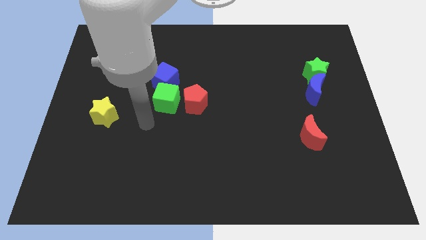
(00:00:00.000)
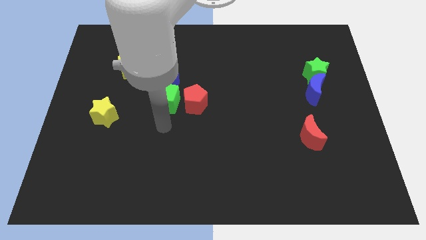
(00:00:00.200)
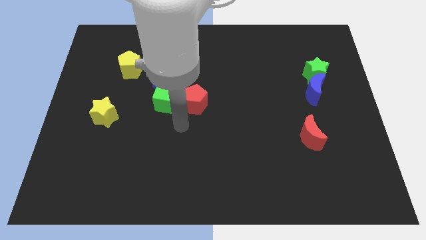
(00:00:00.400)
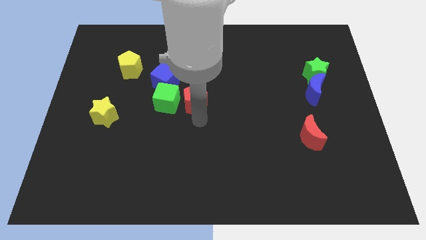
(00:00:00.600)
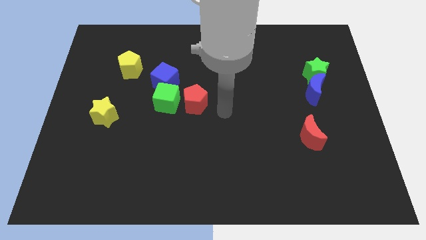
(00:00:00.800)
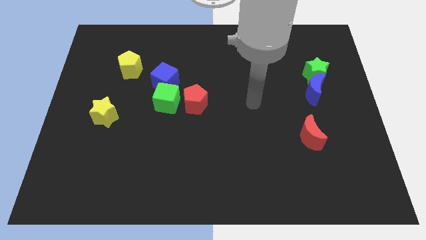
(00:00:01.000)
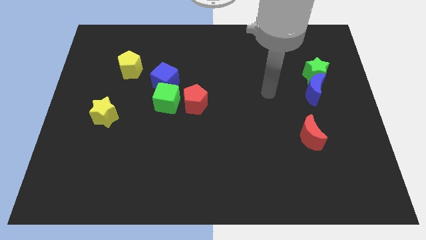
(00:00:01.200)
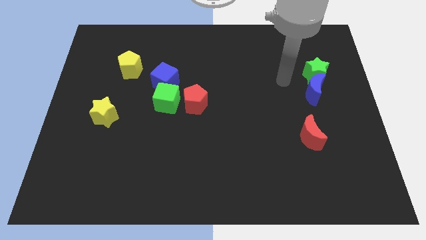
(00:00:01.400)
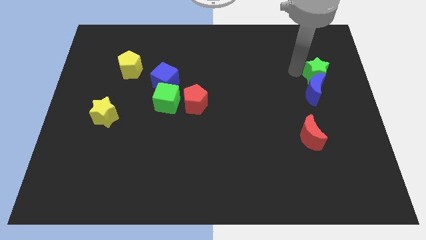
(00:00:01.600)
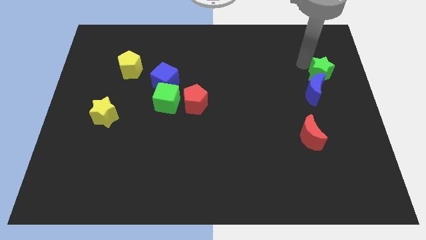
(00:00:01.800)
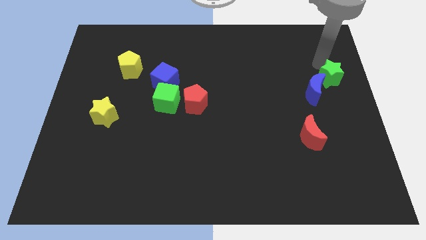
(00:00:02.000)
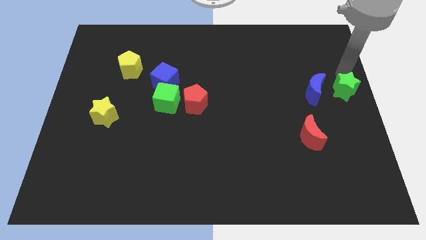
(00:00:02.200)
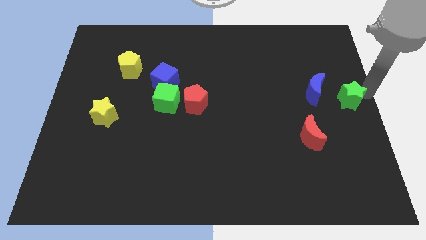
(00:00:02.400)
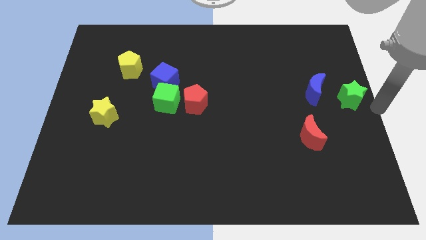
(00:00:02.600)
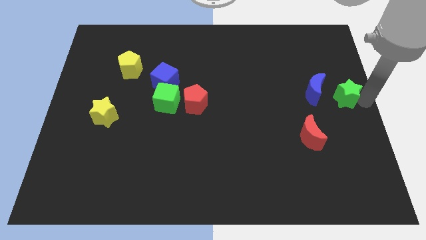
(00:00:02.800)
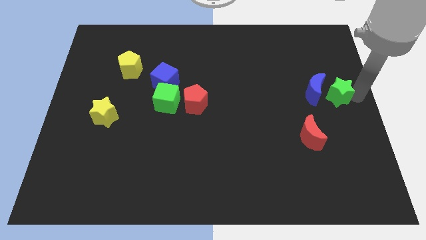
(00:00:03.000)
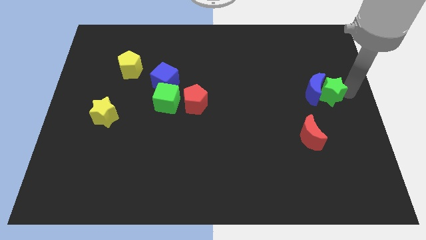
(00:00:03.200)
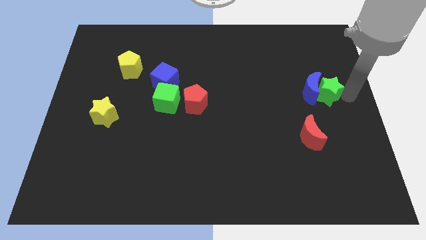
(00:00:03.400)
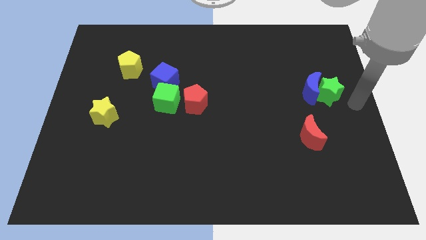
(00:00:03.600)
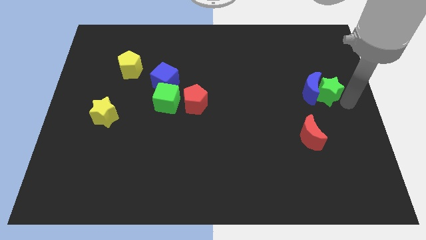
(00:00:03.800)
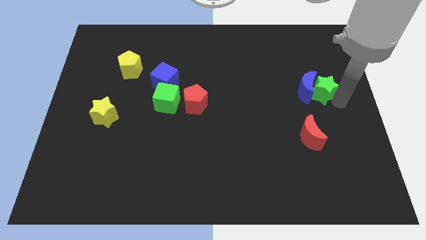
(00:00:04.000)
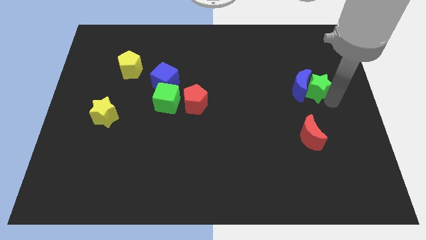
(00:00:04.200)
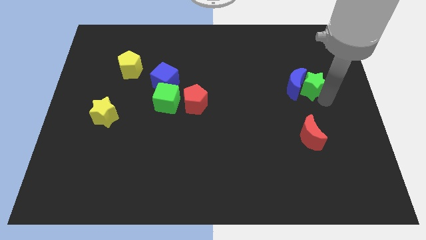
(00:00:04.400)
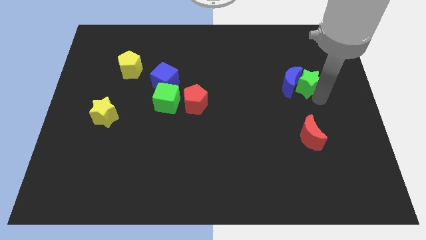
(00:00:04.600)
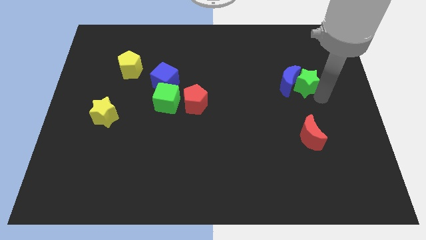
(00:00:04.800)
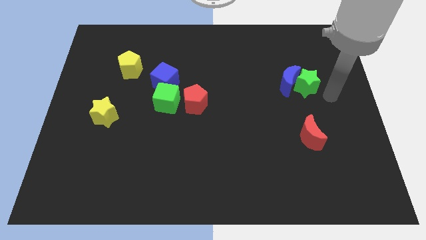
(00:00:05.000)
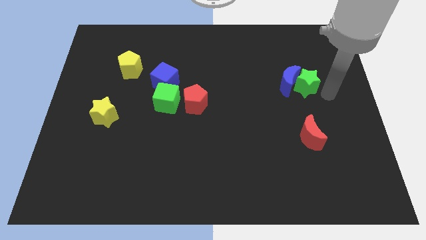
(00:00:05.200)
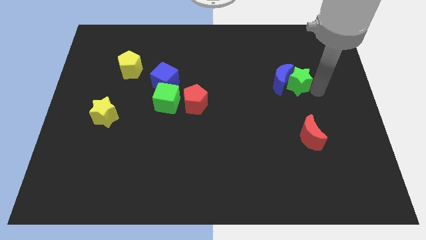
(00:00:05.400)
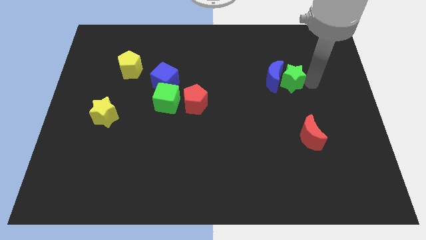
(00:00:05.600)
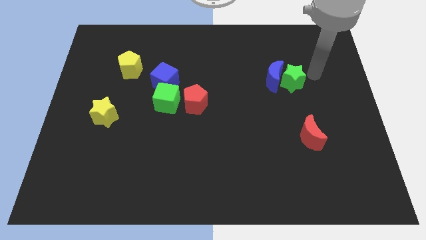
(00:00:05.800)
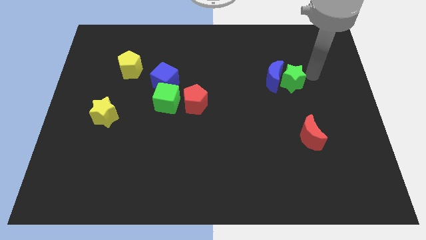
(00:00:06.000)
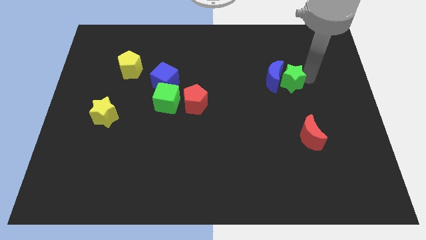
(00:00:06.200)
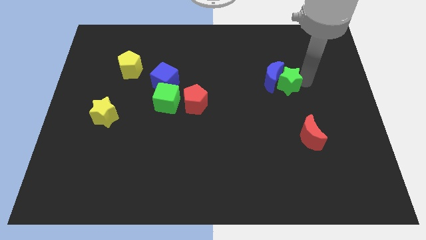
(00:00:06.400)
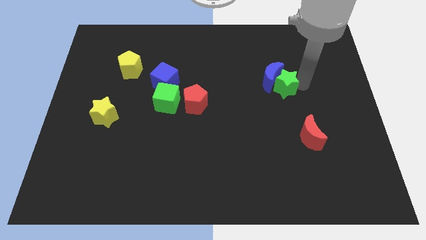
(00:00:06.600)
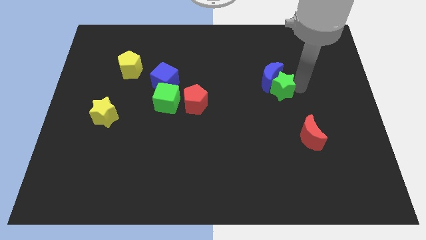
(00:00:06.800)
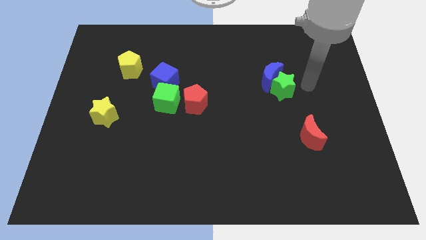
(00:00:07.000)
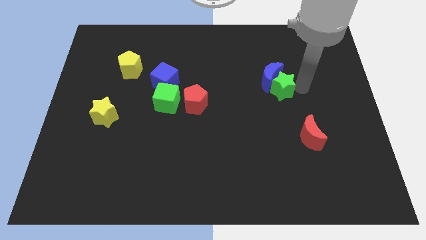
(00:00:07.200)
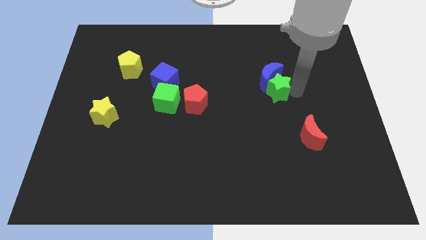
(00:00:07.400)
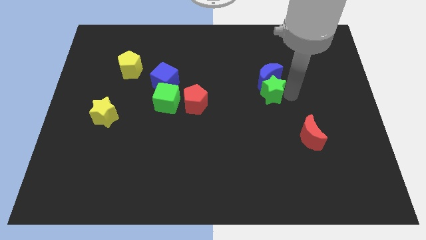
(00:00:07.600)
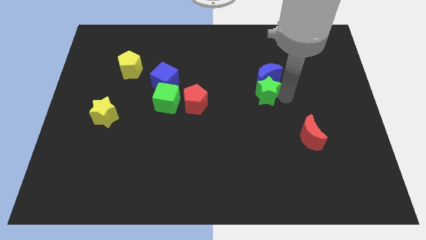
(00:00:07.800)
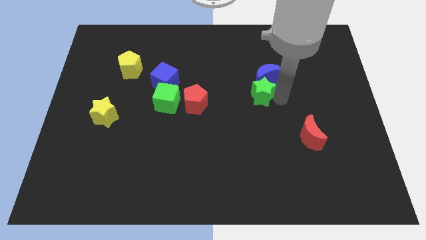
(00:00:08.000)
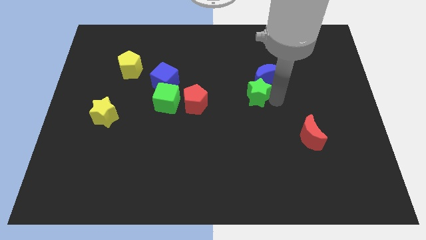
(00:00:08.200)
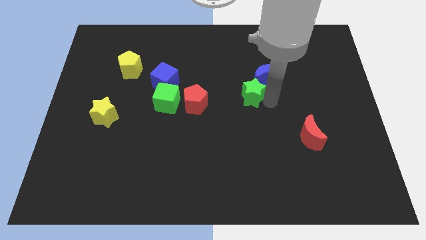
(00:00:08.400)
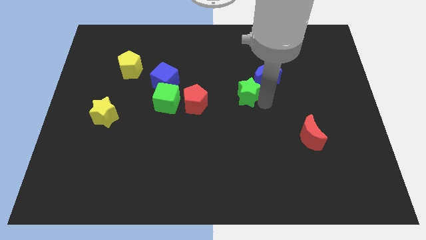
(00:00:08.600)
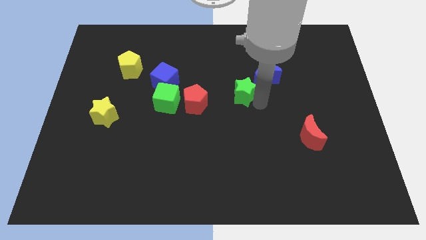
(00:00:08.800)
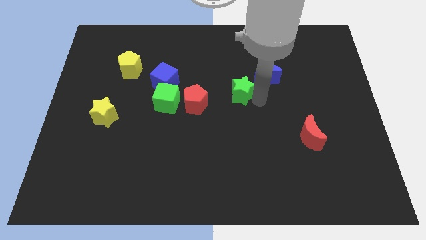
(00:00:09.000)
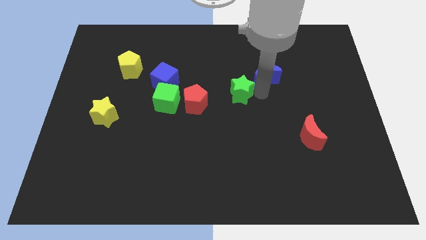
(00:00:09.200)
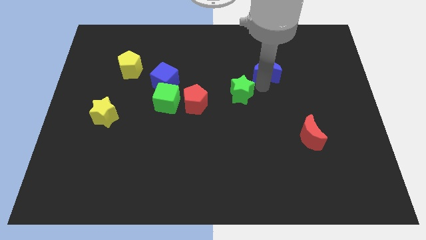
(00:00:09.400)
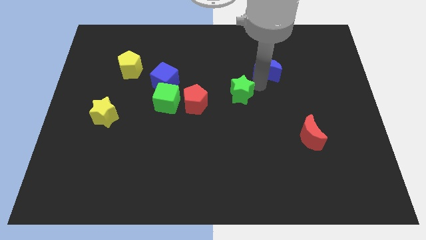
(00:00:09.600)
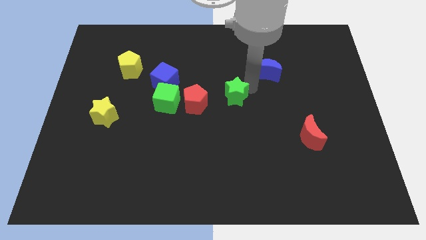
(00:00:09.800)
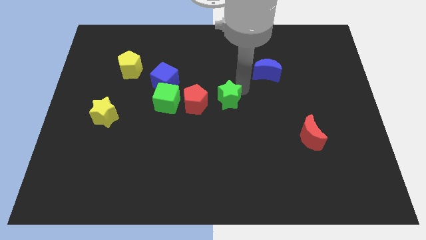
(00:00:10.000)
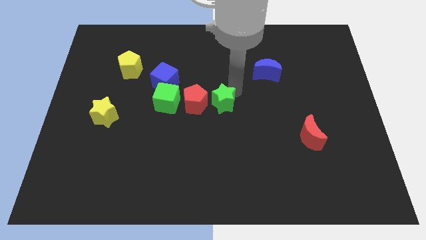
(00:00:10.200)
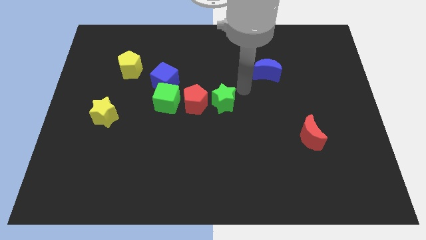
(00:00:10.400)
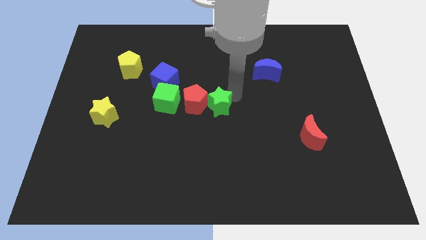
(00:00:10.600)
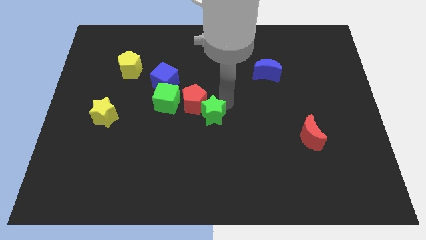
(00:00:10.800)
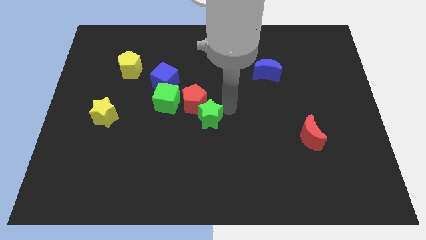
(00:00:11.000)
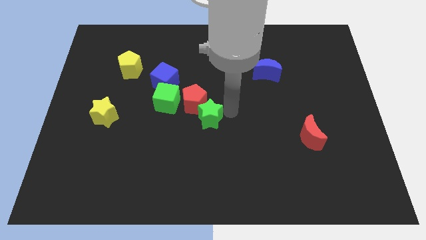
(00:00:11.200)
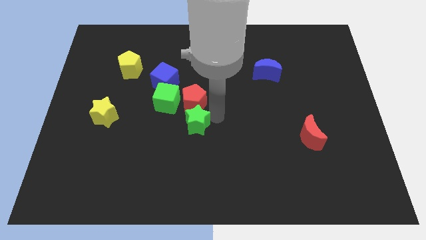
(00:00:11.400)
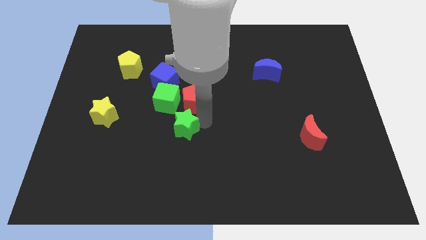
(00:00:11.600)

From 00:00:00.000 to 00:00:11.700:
push the green star below the green cube

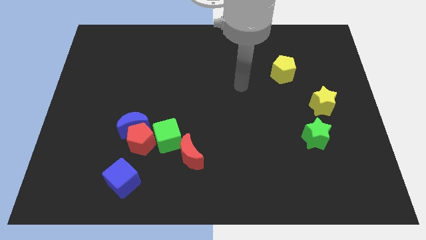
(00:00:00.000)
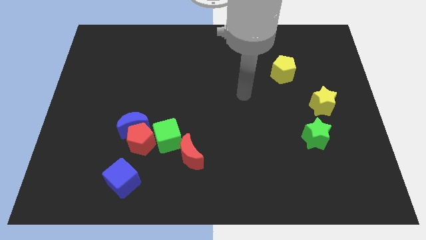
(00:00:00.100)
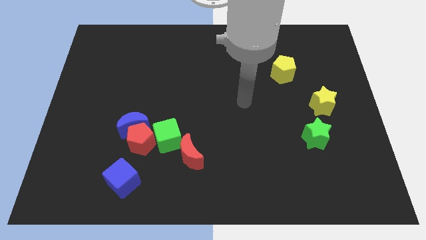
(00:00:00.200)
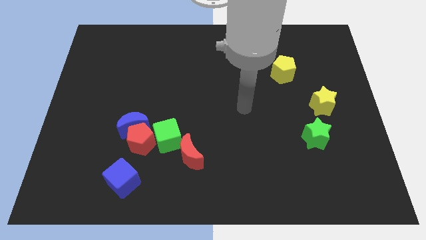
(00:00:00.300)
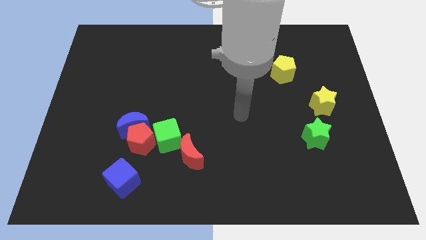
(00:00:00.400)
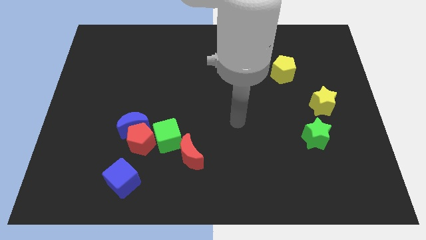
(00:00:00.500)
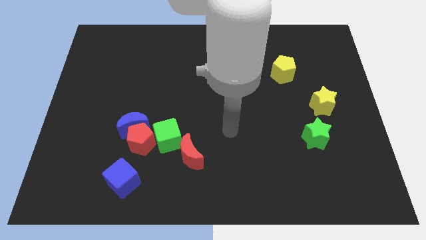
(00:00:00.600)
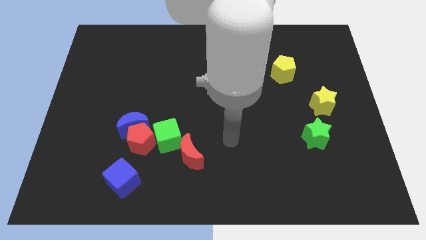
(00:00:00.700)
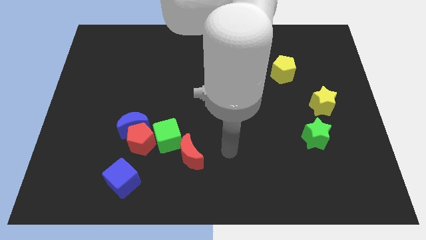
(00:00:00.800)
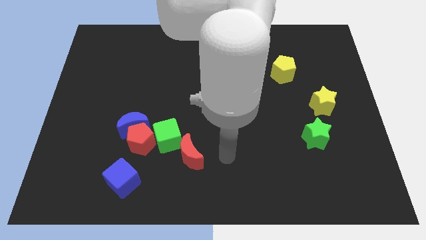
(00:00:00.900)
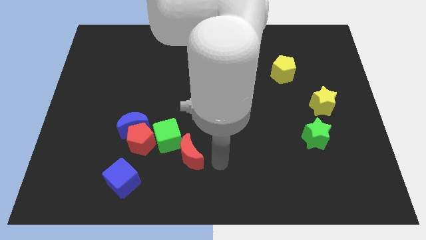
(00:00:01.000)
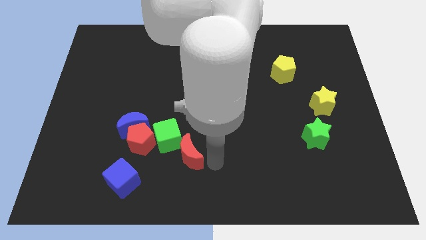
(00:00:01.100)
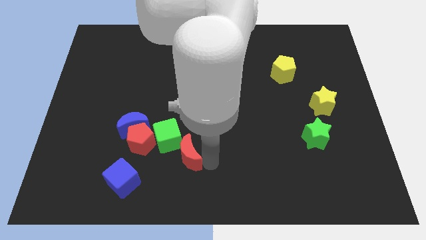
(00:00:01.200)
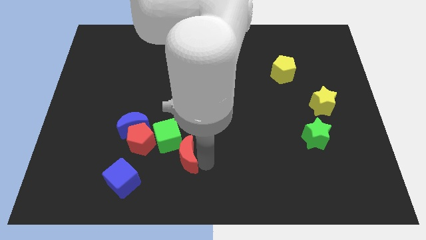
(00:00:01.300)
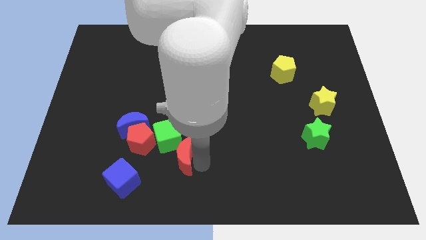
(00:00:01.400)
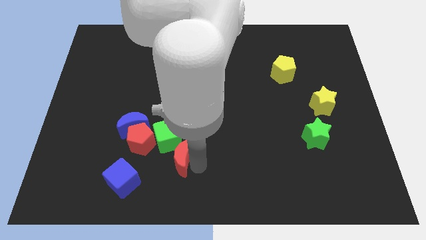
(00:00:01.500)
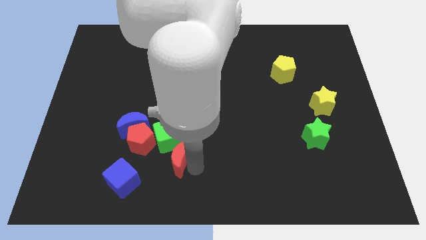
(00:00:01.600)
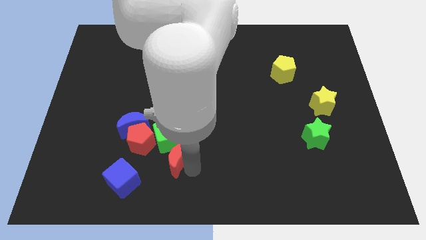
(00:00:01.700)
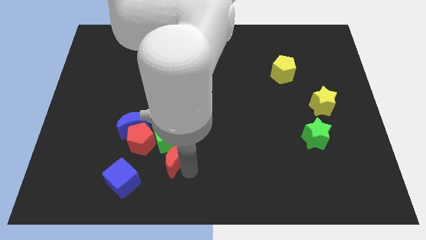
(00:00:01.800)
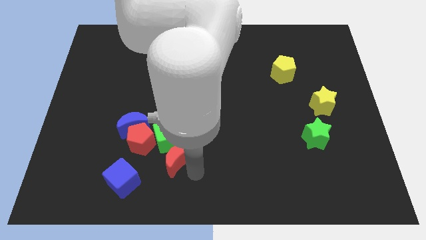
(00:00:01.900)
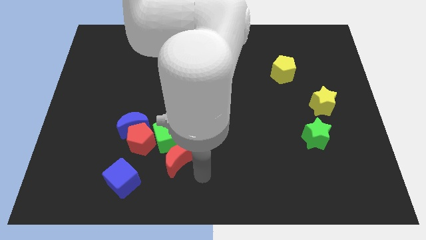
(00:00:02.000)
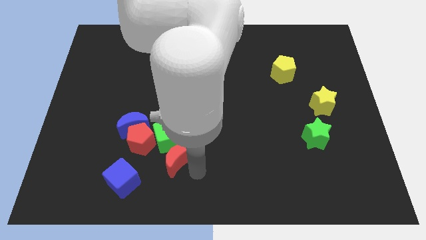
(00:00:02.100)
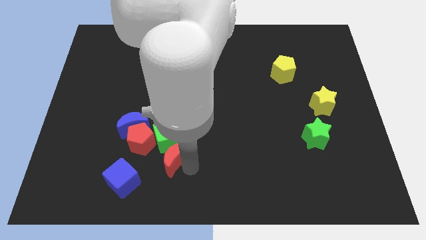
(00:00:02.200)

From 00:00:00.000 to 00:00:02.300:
put the red moon to the bottom right side of the blue moon
